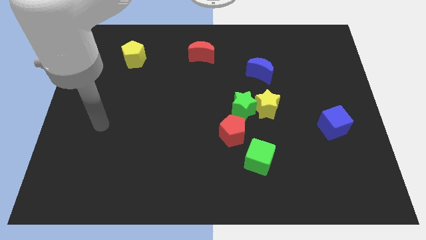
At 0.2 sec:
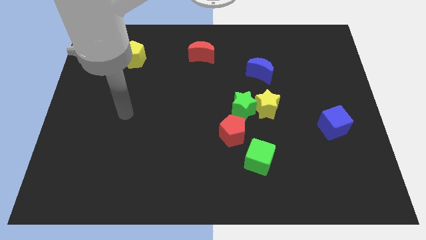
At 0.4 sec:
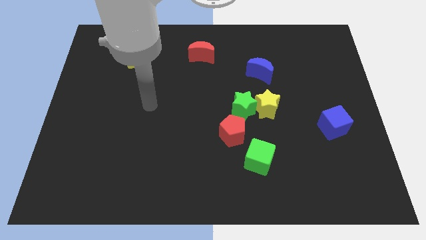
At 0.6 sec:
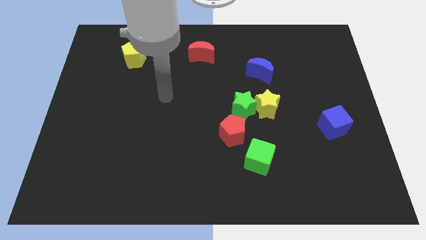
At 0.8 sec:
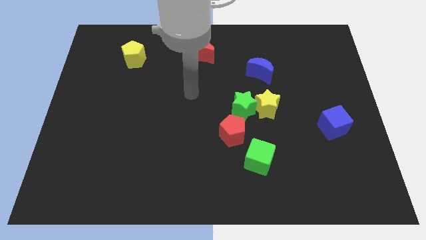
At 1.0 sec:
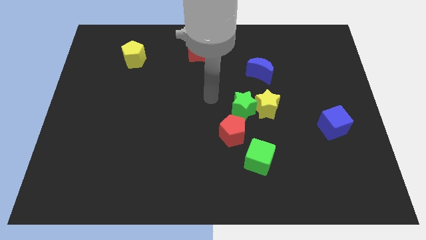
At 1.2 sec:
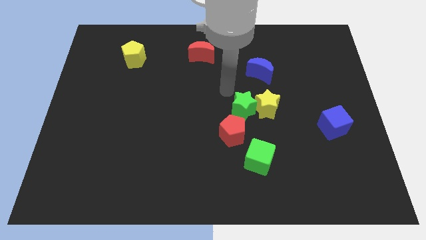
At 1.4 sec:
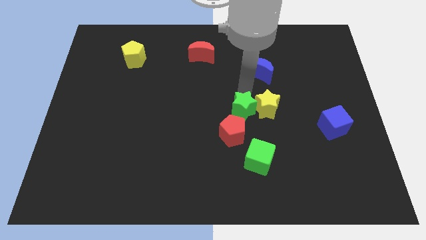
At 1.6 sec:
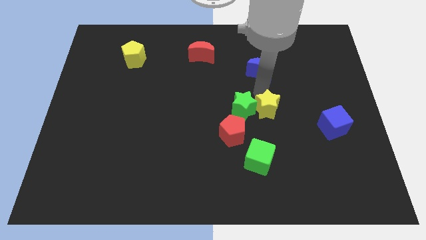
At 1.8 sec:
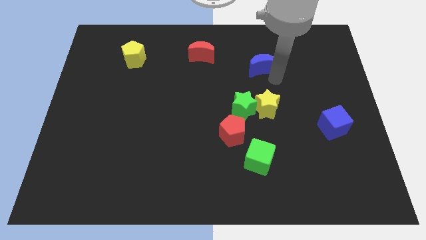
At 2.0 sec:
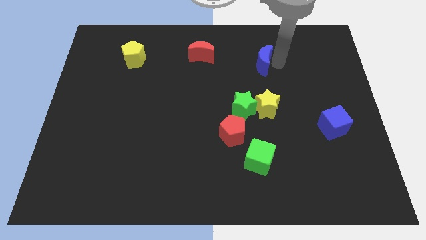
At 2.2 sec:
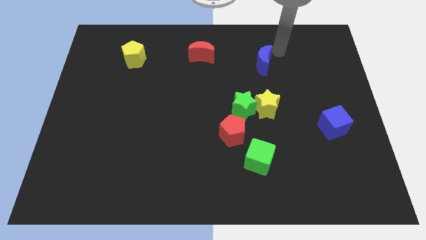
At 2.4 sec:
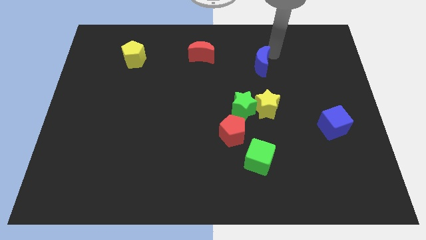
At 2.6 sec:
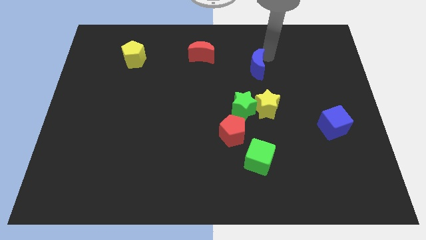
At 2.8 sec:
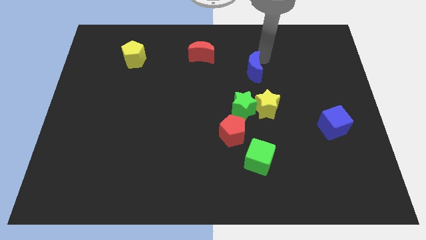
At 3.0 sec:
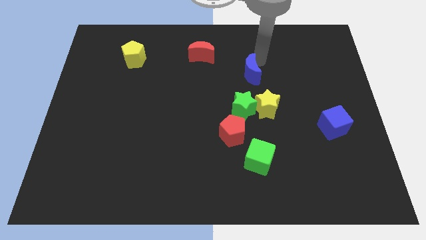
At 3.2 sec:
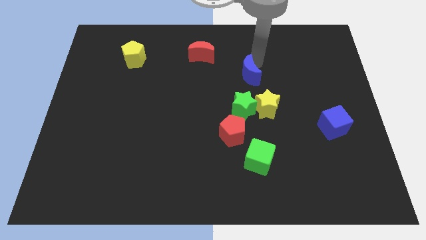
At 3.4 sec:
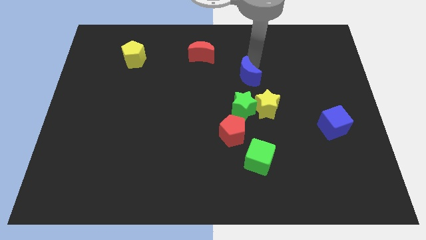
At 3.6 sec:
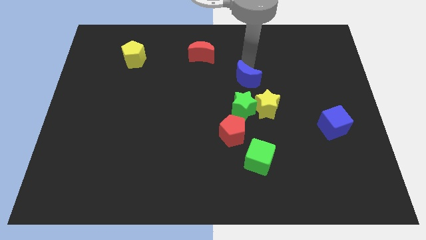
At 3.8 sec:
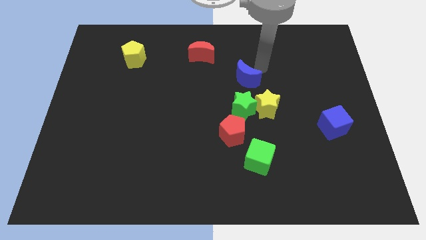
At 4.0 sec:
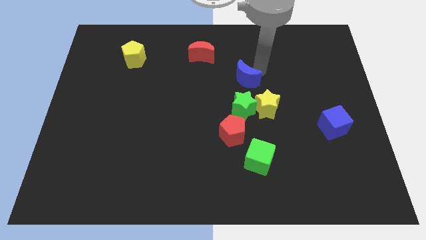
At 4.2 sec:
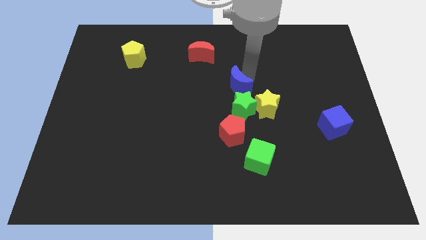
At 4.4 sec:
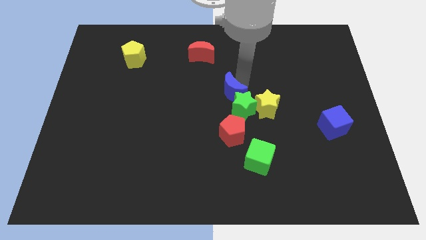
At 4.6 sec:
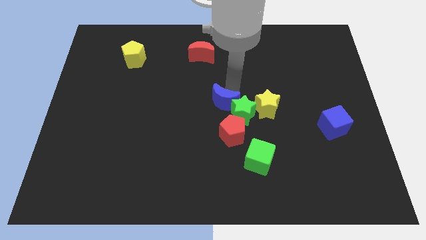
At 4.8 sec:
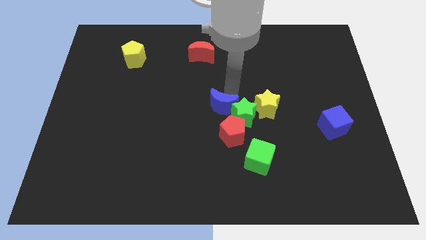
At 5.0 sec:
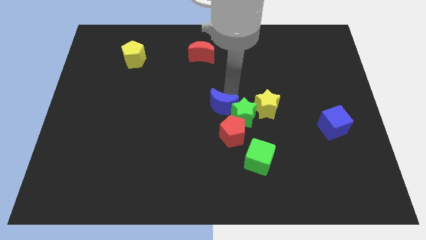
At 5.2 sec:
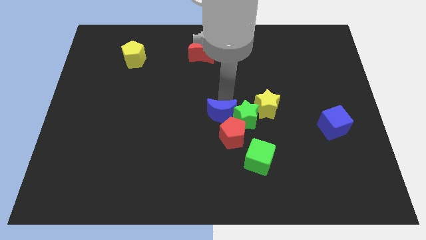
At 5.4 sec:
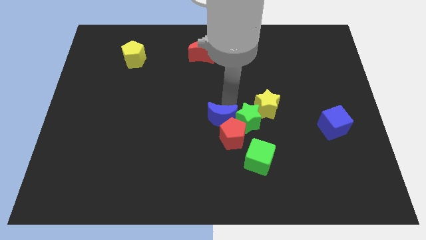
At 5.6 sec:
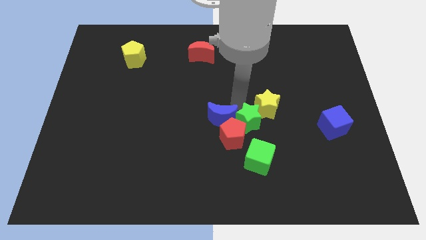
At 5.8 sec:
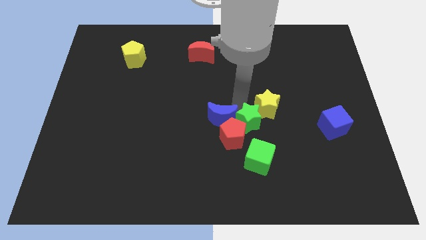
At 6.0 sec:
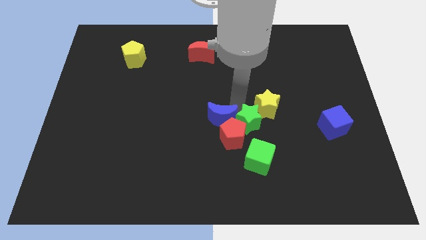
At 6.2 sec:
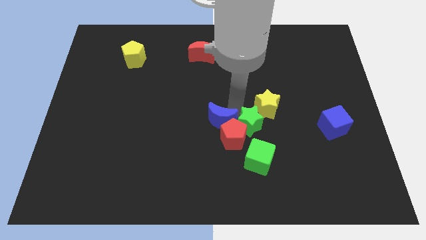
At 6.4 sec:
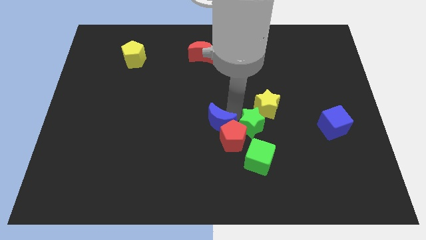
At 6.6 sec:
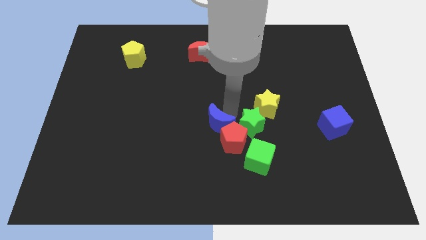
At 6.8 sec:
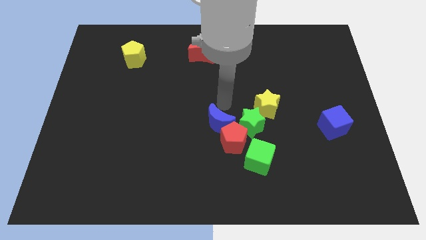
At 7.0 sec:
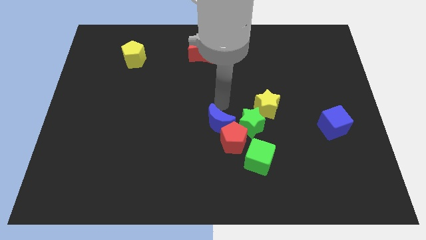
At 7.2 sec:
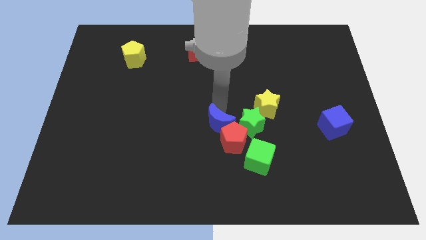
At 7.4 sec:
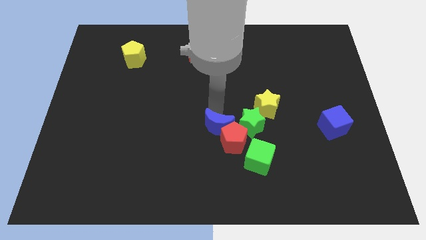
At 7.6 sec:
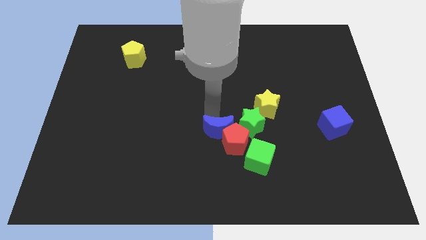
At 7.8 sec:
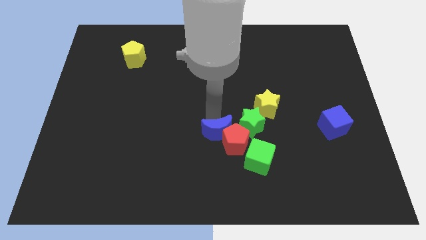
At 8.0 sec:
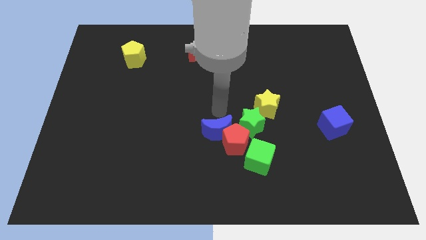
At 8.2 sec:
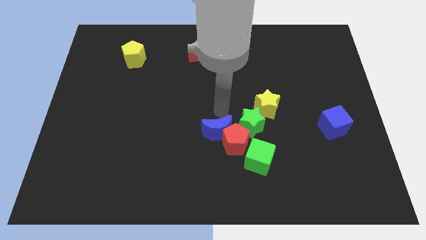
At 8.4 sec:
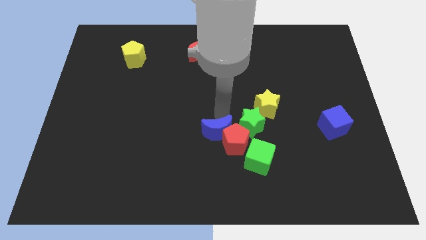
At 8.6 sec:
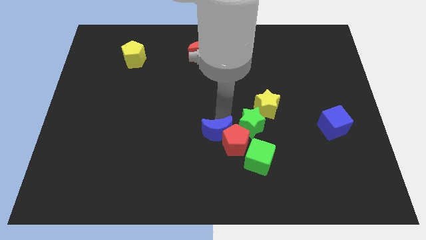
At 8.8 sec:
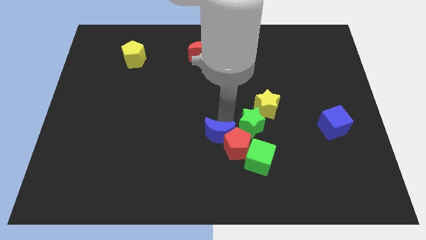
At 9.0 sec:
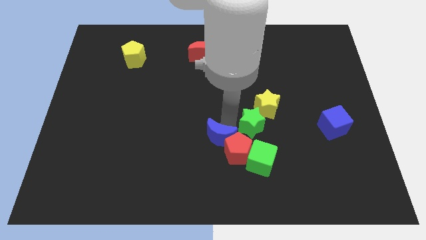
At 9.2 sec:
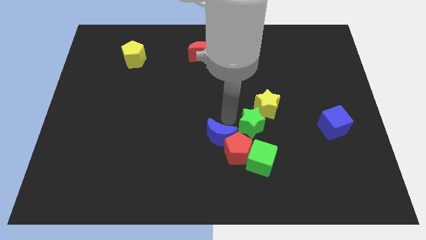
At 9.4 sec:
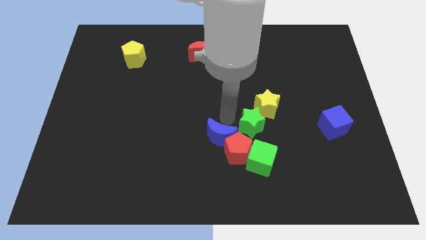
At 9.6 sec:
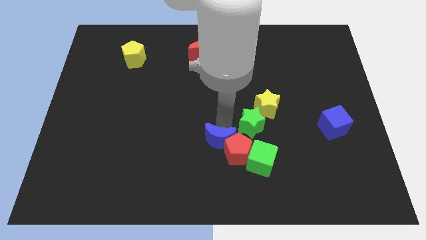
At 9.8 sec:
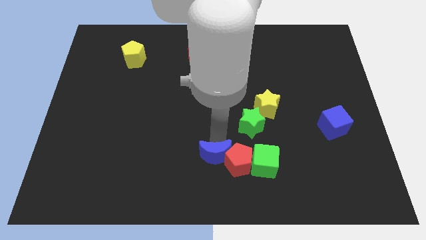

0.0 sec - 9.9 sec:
put the blue moon to the bottom

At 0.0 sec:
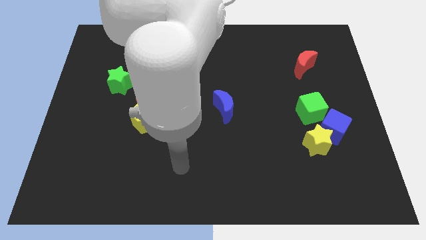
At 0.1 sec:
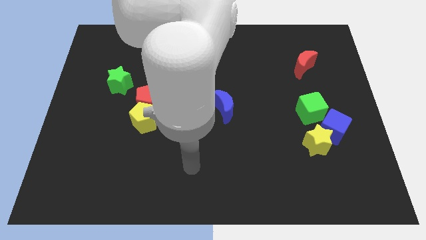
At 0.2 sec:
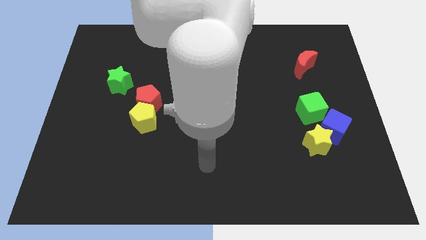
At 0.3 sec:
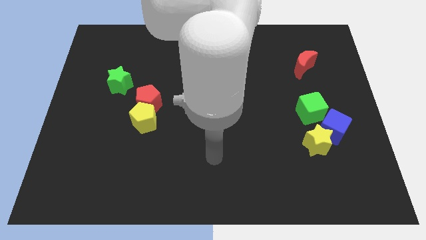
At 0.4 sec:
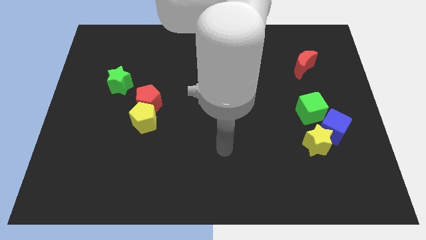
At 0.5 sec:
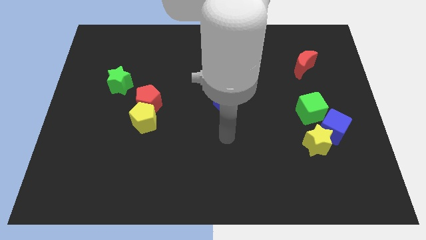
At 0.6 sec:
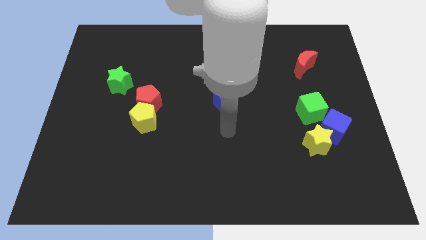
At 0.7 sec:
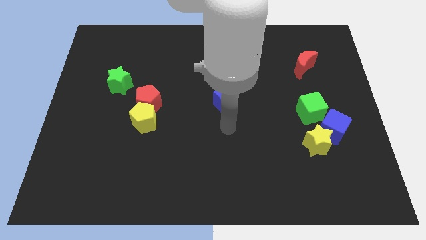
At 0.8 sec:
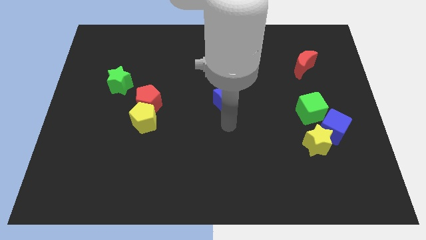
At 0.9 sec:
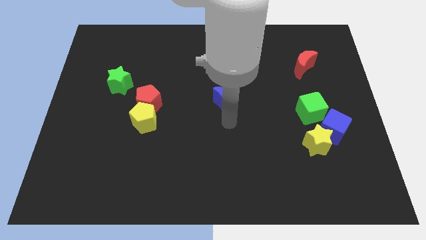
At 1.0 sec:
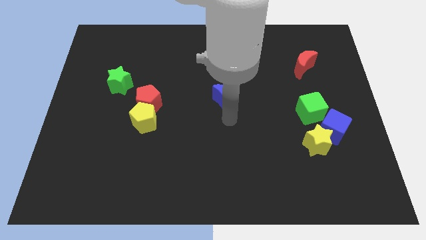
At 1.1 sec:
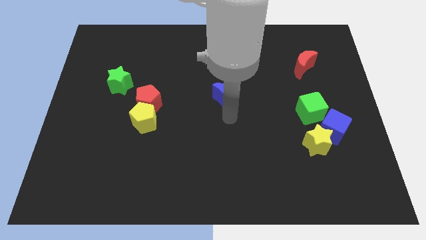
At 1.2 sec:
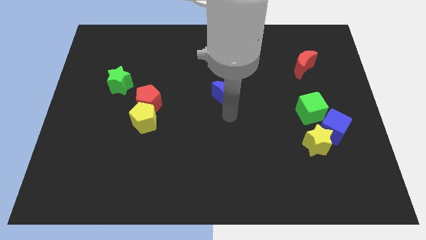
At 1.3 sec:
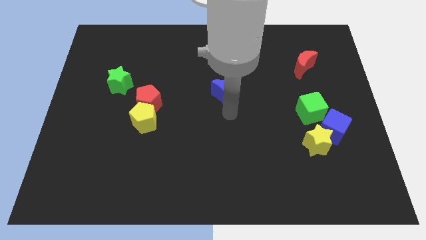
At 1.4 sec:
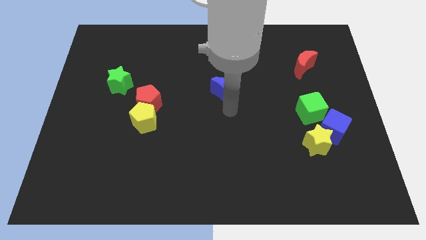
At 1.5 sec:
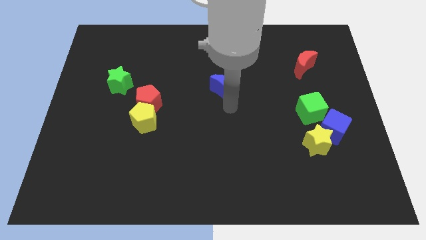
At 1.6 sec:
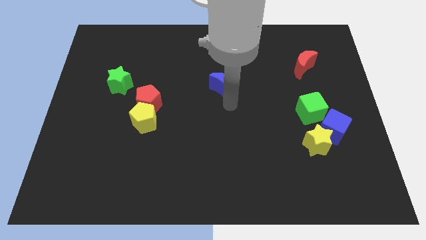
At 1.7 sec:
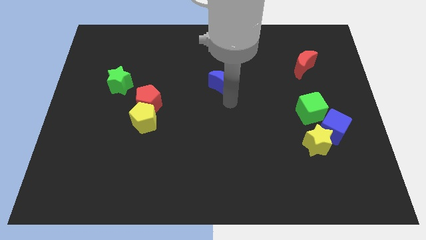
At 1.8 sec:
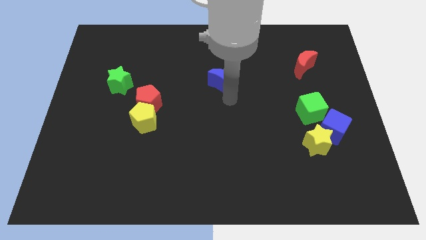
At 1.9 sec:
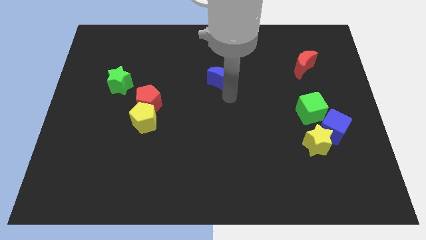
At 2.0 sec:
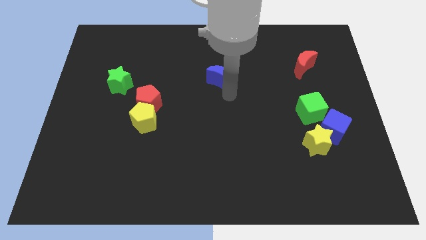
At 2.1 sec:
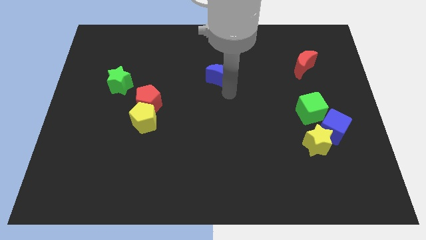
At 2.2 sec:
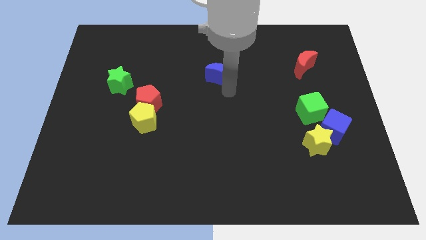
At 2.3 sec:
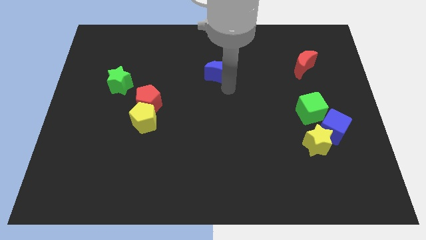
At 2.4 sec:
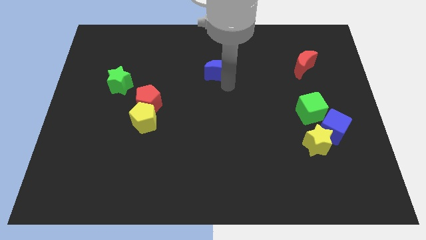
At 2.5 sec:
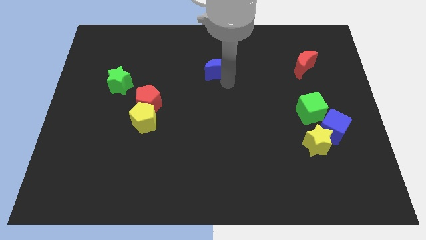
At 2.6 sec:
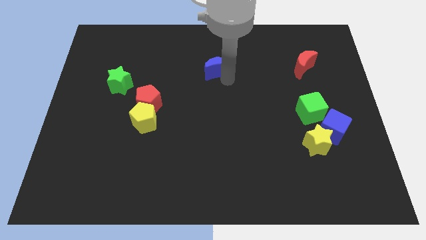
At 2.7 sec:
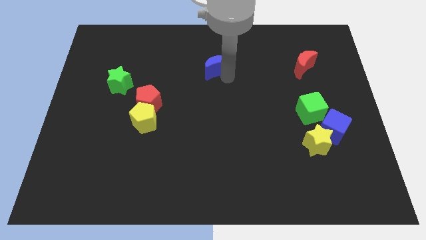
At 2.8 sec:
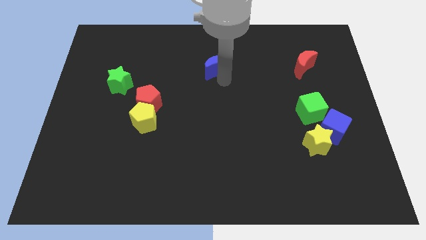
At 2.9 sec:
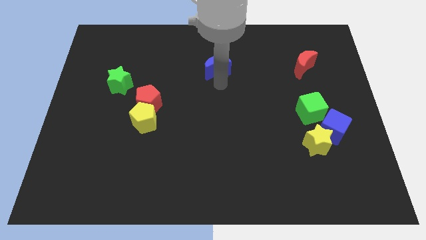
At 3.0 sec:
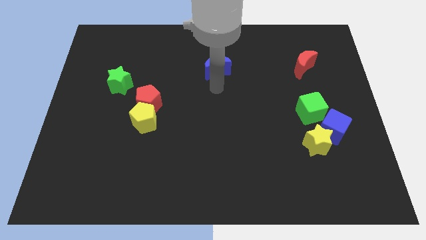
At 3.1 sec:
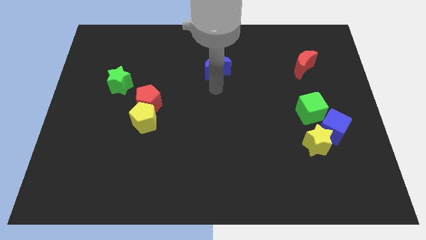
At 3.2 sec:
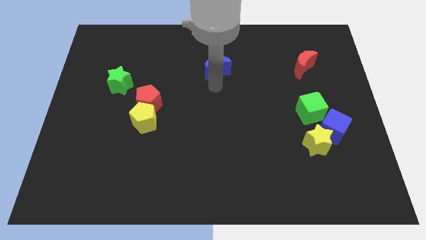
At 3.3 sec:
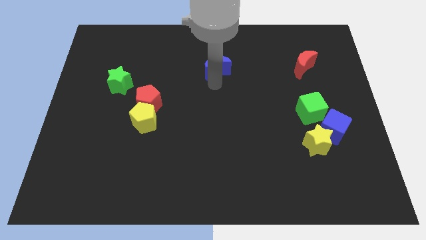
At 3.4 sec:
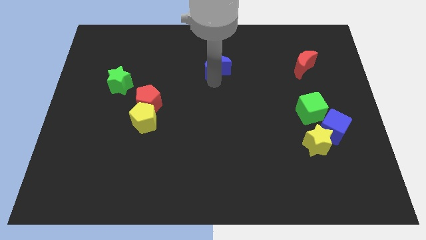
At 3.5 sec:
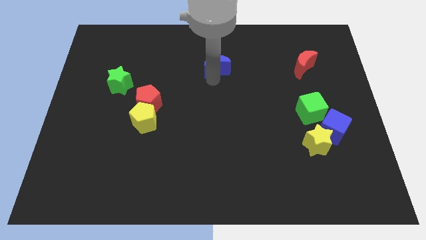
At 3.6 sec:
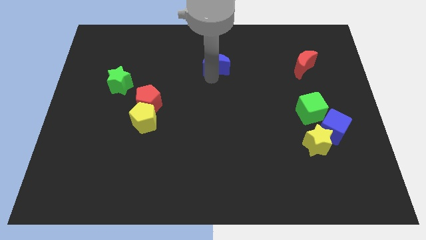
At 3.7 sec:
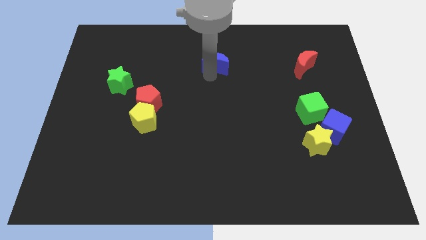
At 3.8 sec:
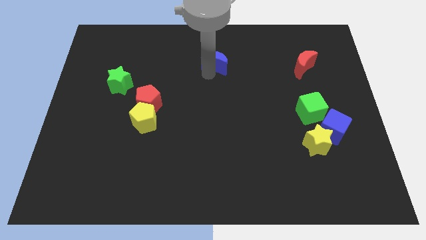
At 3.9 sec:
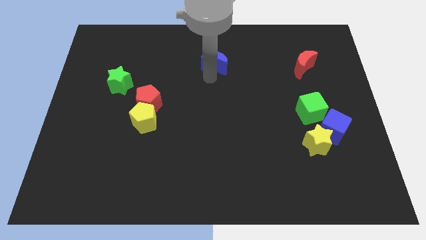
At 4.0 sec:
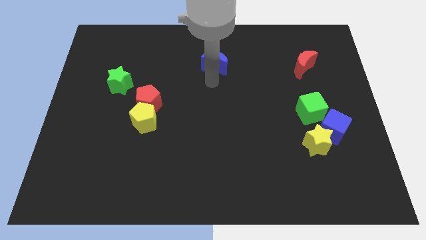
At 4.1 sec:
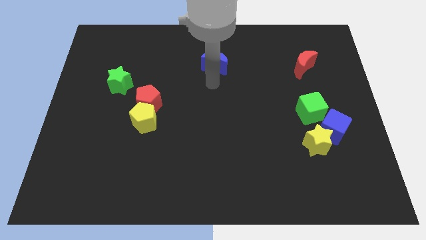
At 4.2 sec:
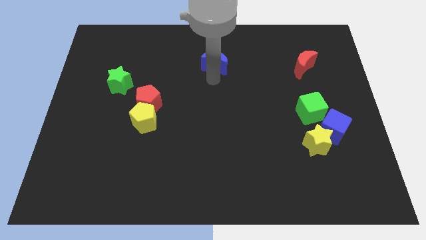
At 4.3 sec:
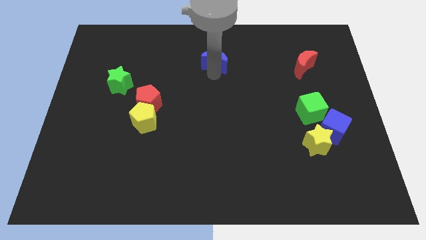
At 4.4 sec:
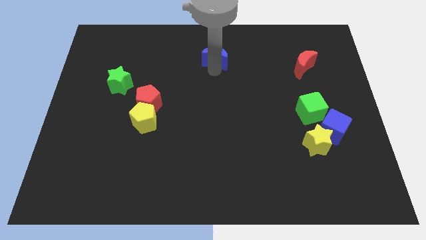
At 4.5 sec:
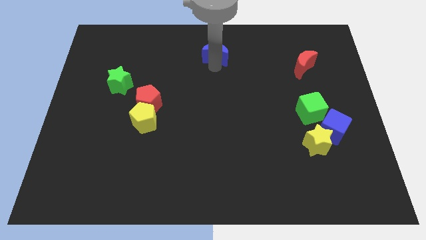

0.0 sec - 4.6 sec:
push the blue moon to the top side
